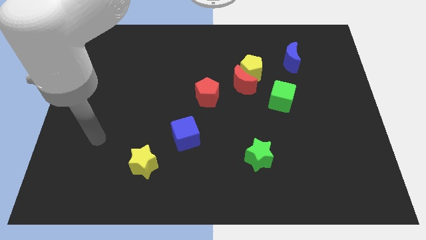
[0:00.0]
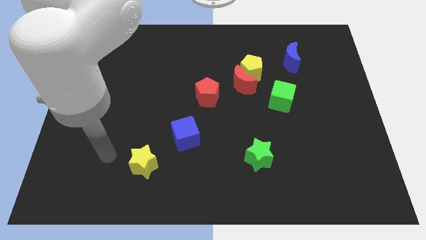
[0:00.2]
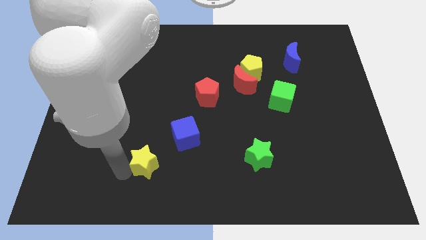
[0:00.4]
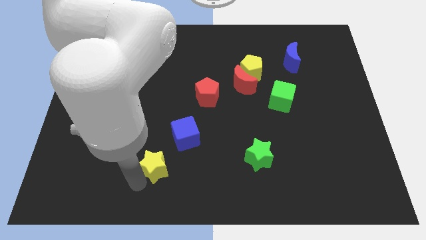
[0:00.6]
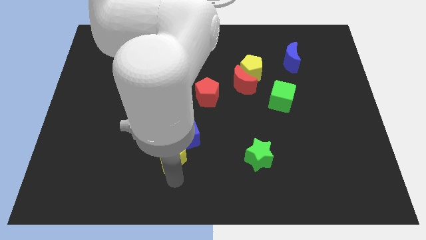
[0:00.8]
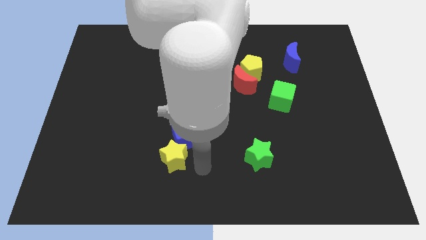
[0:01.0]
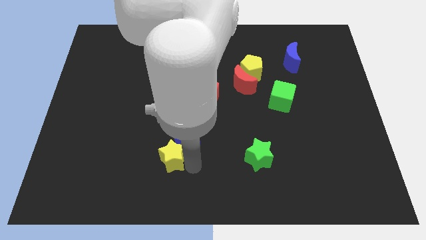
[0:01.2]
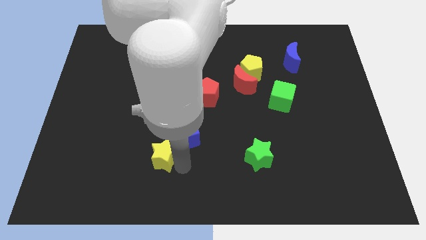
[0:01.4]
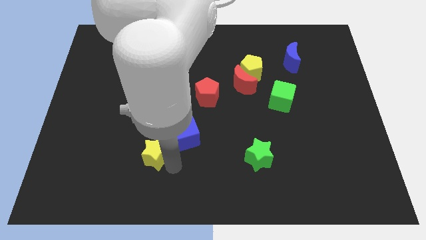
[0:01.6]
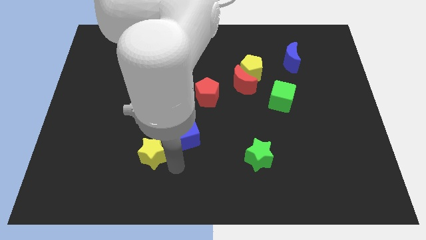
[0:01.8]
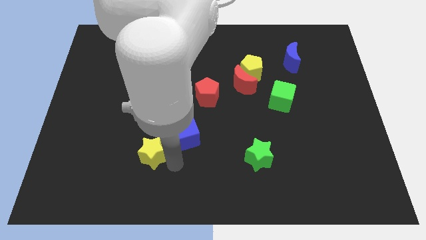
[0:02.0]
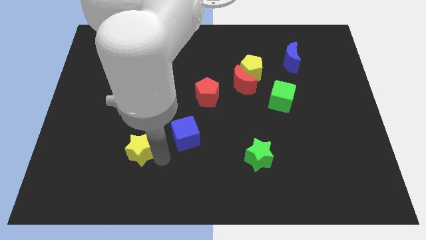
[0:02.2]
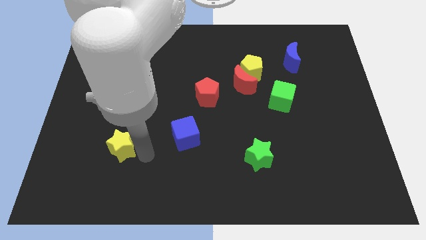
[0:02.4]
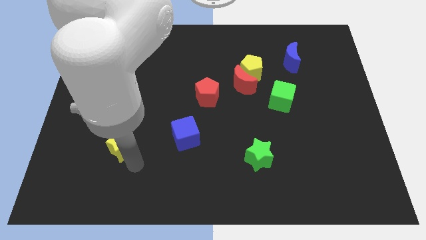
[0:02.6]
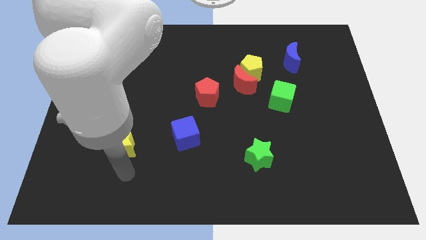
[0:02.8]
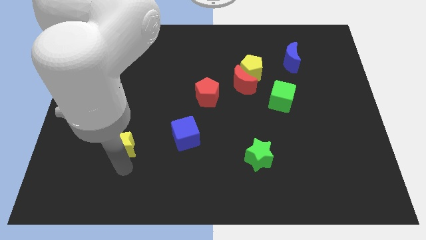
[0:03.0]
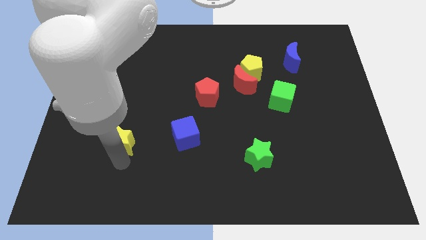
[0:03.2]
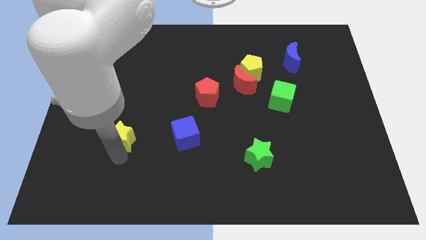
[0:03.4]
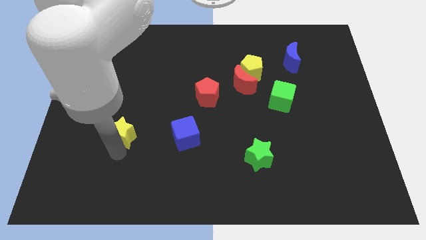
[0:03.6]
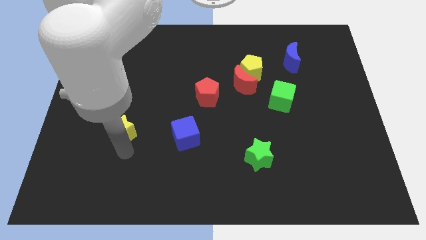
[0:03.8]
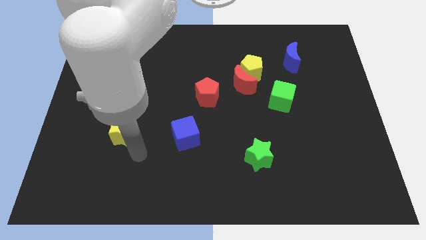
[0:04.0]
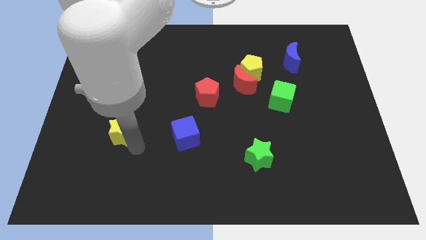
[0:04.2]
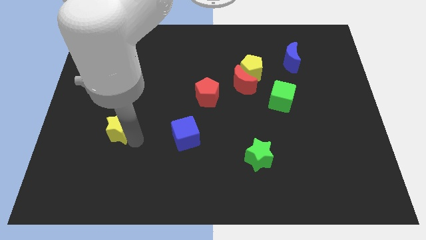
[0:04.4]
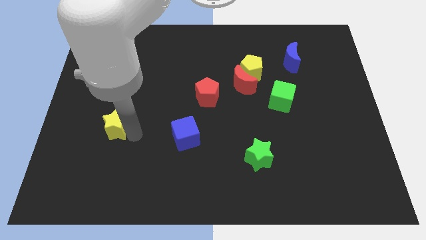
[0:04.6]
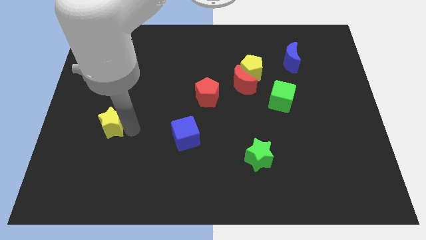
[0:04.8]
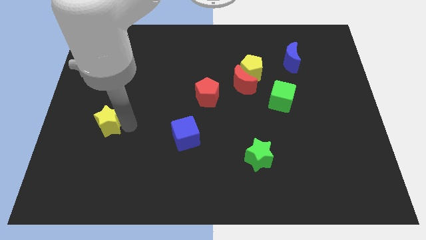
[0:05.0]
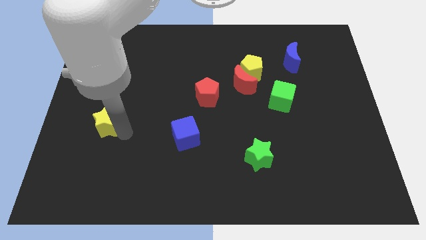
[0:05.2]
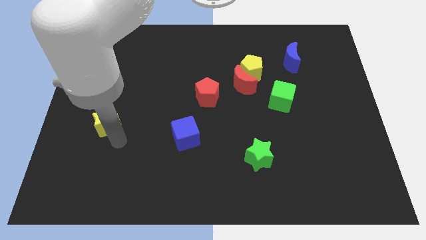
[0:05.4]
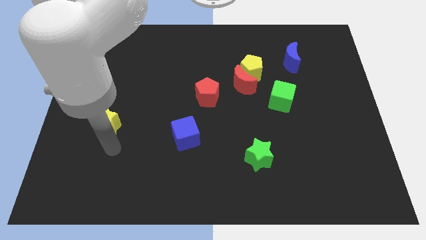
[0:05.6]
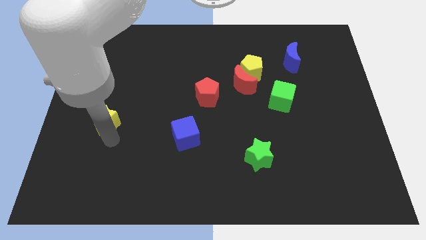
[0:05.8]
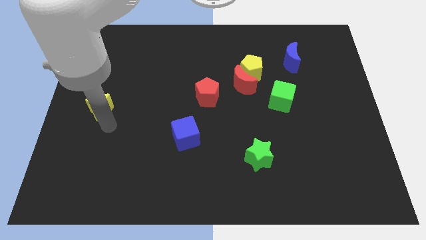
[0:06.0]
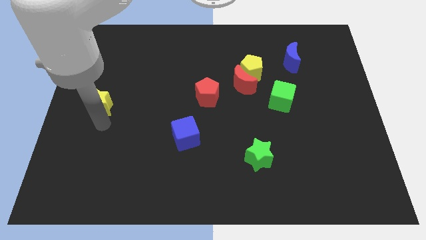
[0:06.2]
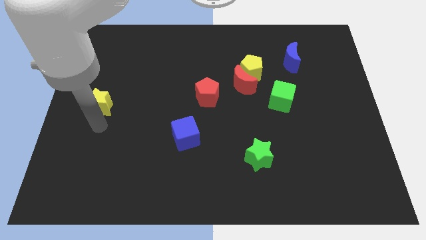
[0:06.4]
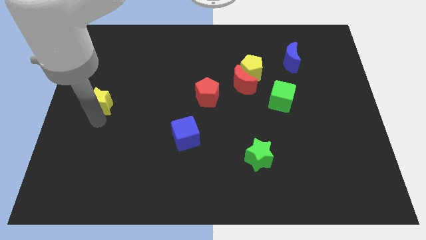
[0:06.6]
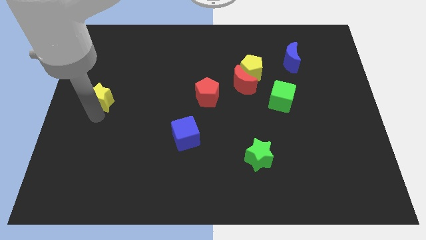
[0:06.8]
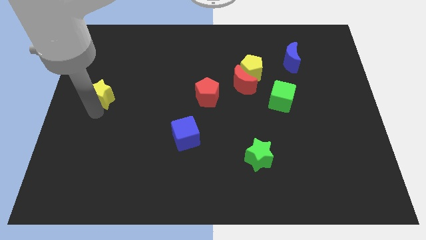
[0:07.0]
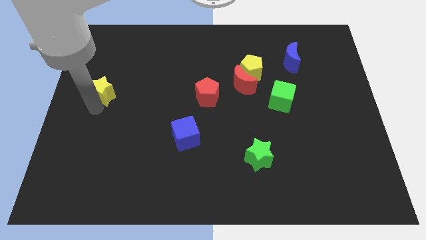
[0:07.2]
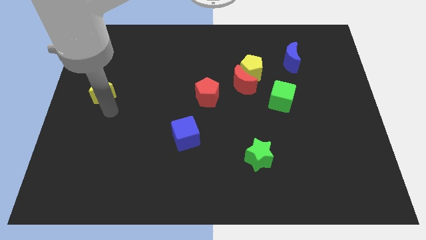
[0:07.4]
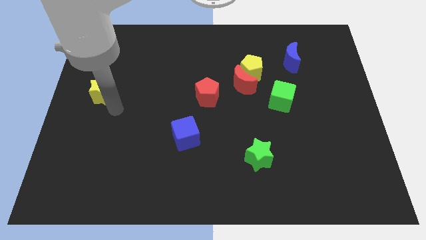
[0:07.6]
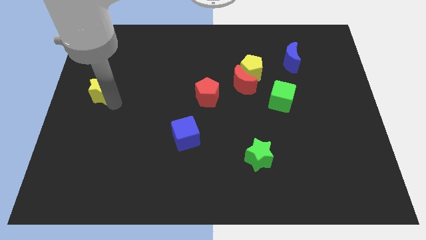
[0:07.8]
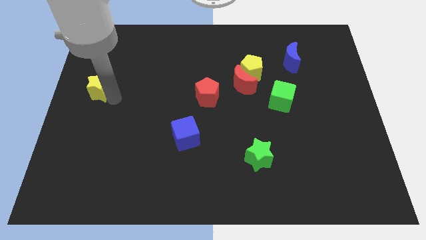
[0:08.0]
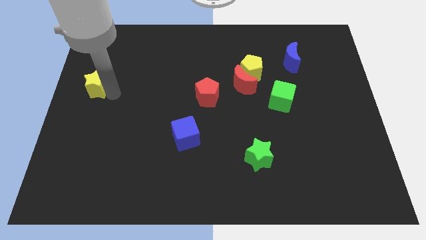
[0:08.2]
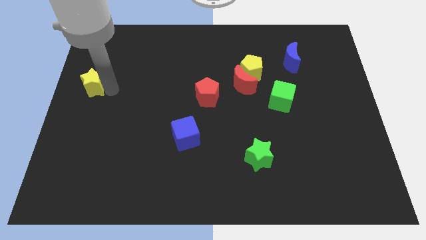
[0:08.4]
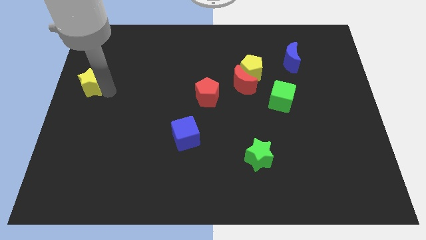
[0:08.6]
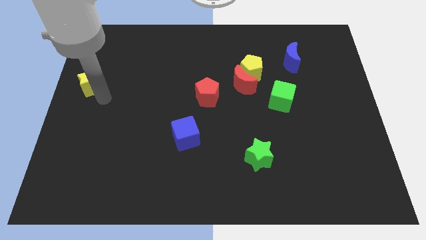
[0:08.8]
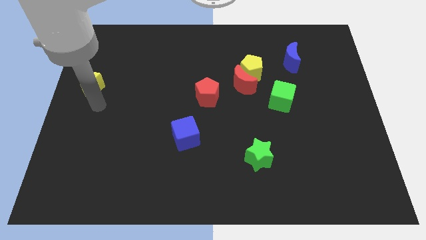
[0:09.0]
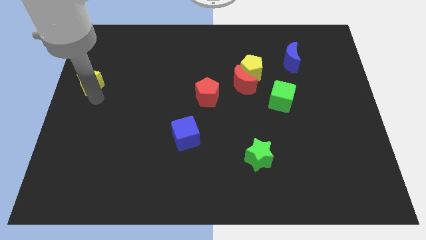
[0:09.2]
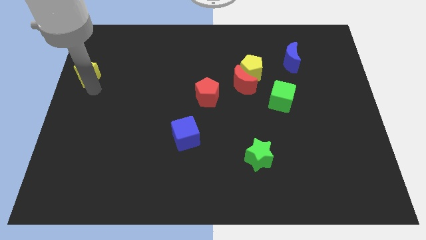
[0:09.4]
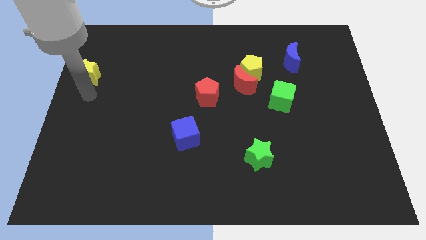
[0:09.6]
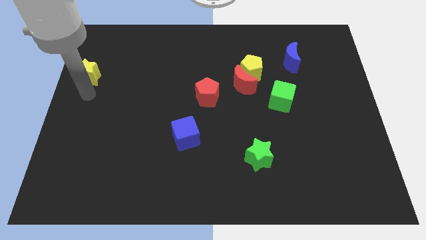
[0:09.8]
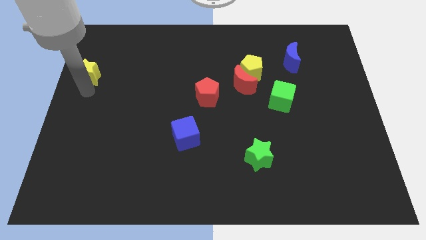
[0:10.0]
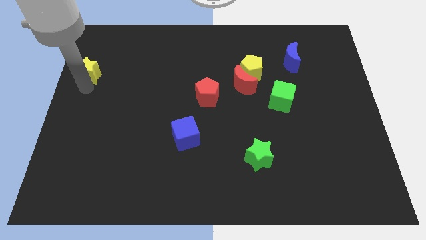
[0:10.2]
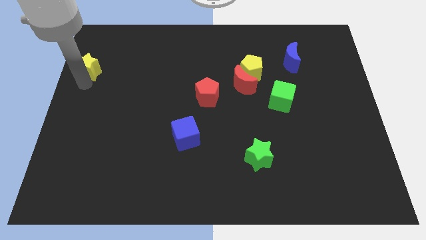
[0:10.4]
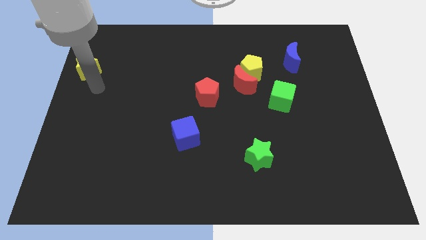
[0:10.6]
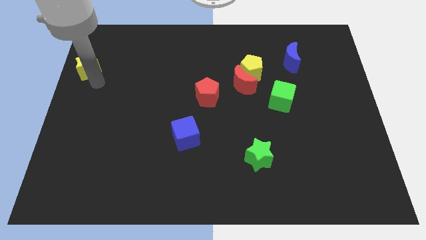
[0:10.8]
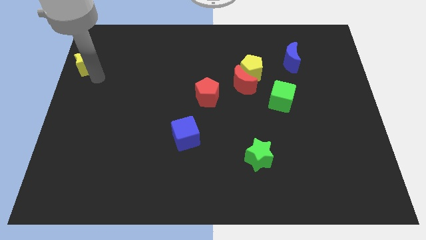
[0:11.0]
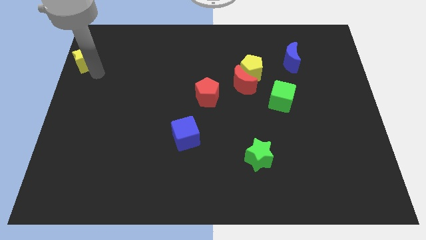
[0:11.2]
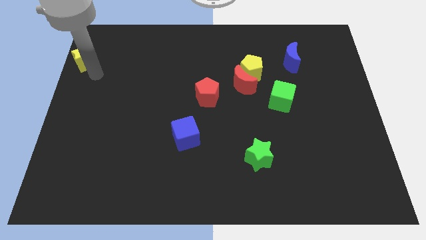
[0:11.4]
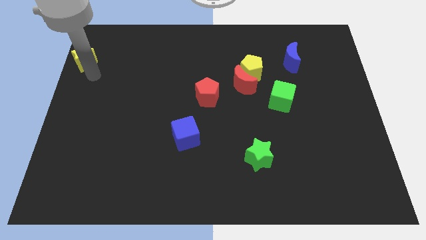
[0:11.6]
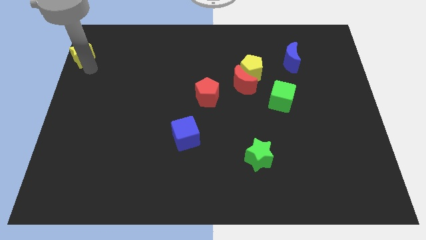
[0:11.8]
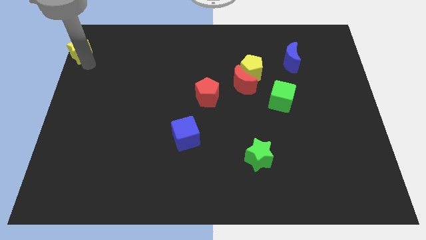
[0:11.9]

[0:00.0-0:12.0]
move the yellow star to the top left
